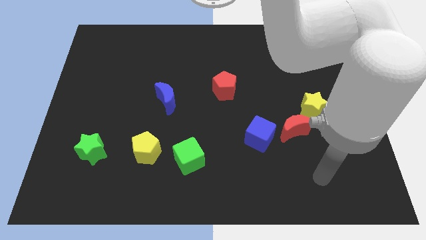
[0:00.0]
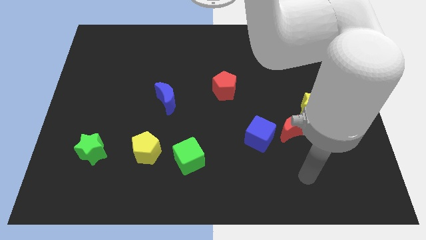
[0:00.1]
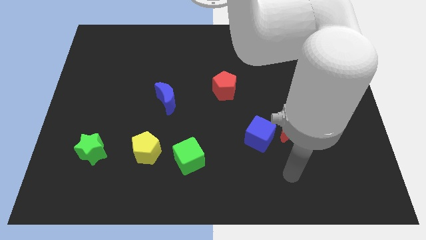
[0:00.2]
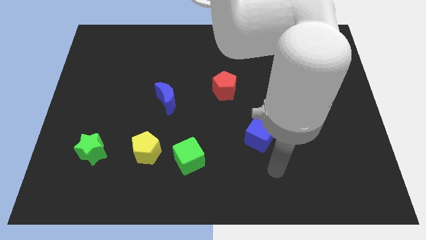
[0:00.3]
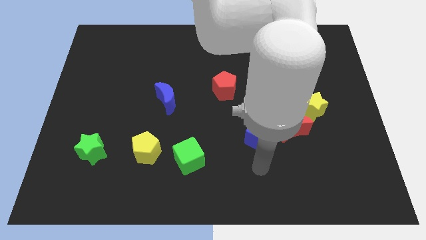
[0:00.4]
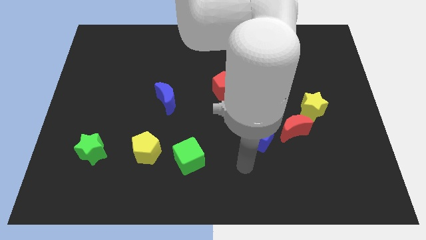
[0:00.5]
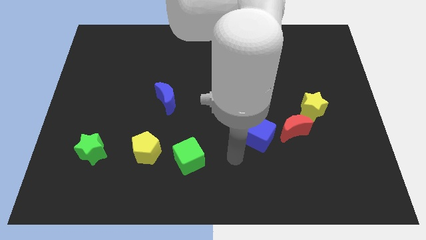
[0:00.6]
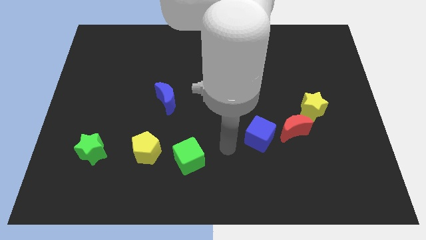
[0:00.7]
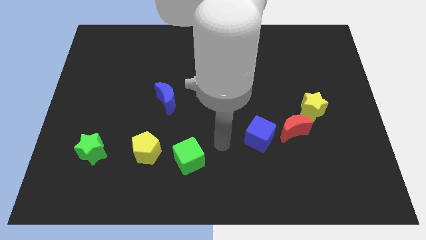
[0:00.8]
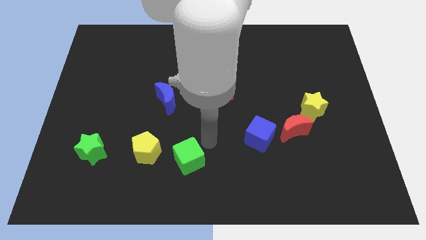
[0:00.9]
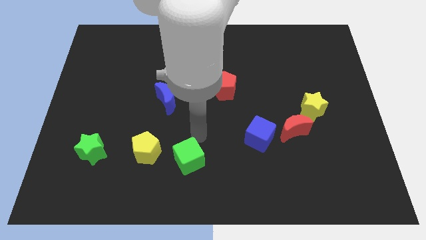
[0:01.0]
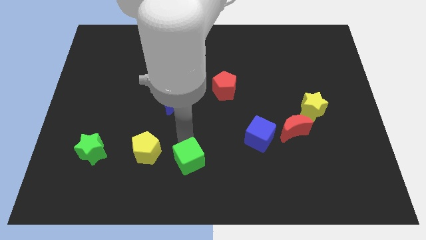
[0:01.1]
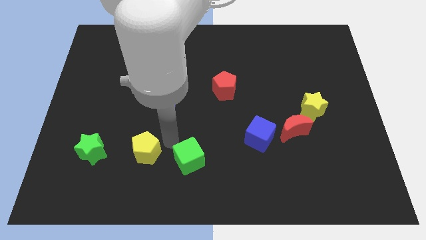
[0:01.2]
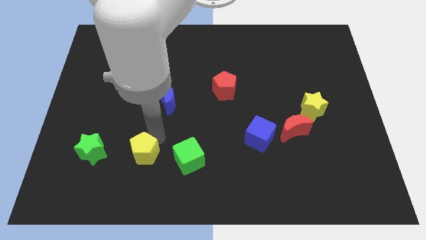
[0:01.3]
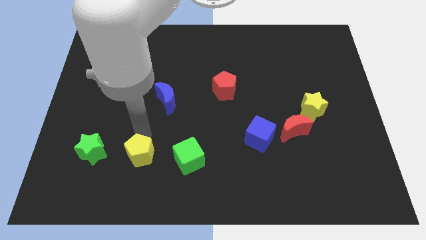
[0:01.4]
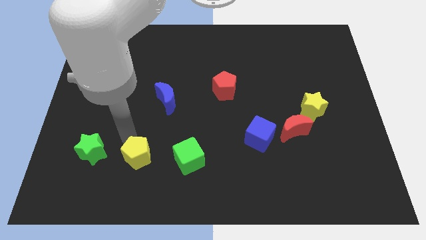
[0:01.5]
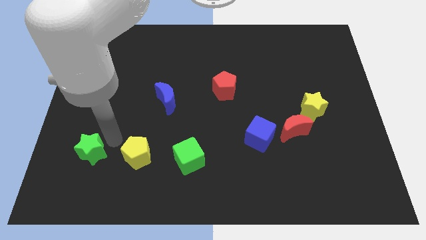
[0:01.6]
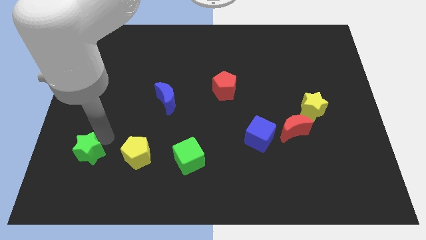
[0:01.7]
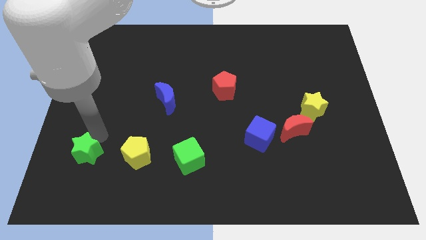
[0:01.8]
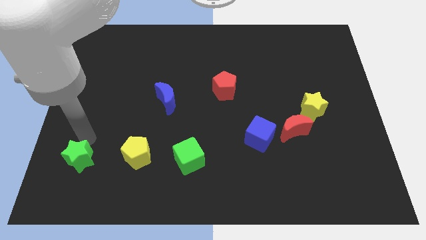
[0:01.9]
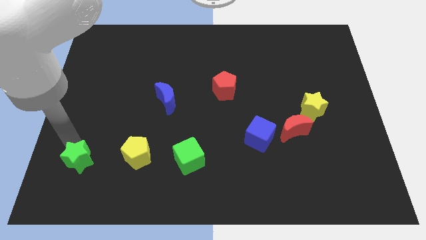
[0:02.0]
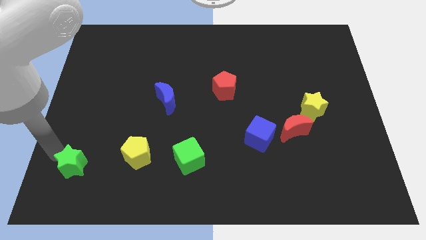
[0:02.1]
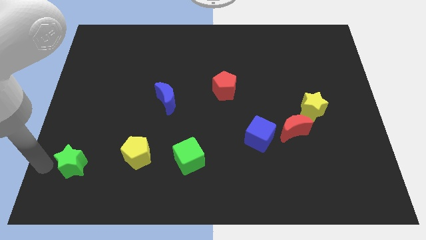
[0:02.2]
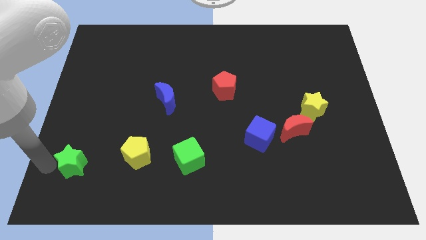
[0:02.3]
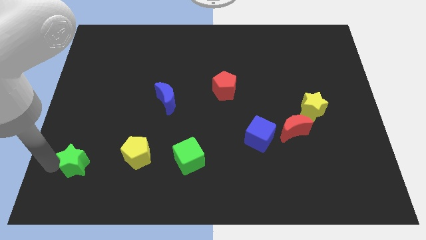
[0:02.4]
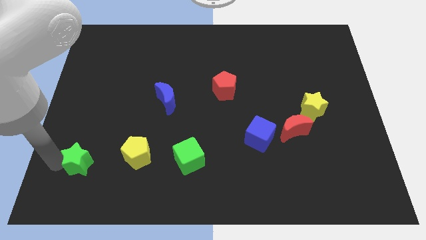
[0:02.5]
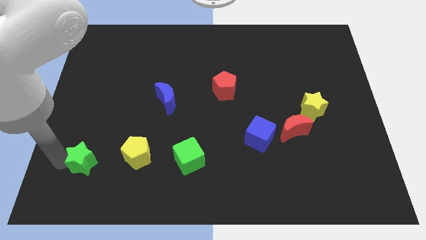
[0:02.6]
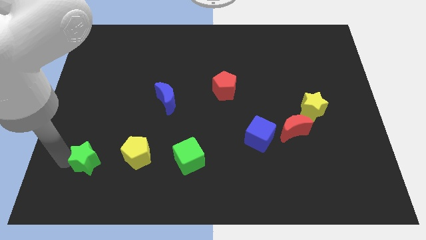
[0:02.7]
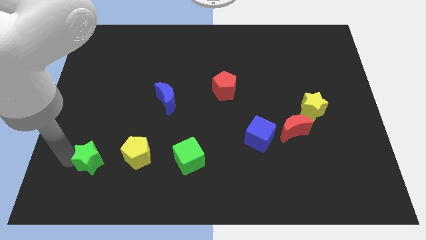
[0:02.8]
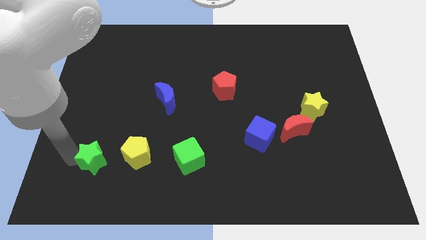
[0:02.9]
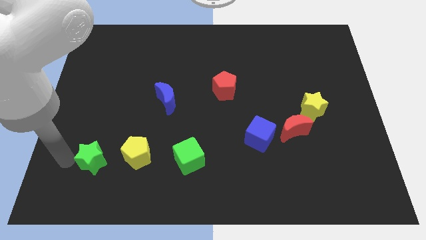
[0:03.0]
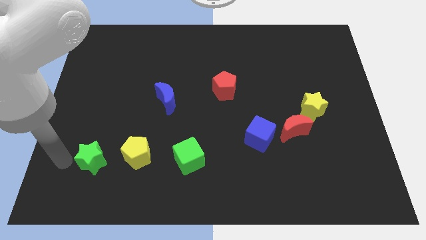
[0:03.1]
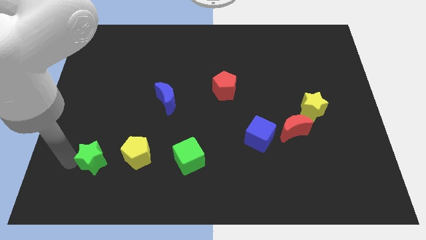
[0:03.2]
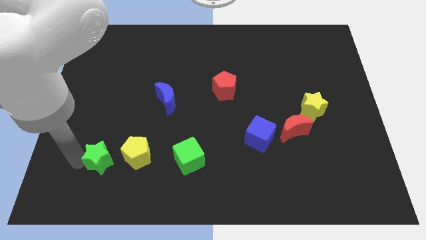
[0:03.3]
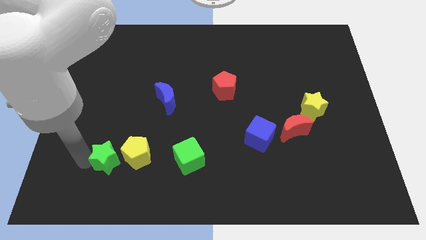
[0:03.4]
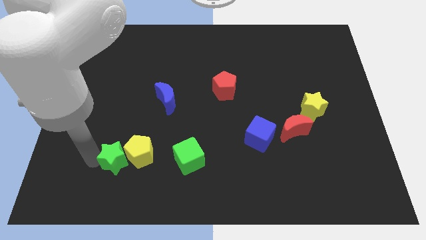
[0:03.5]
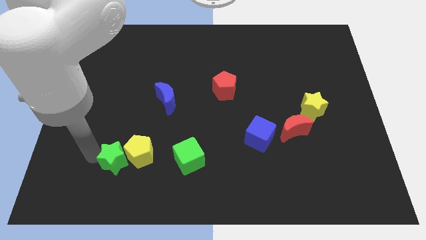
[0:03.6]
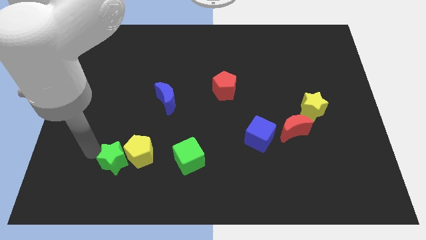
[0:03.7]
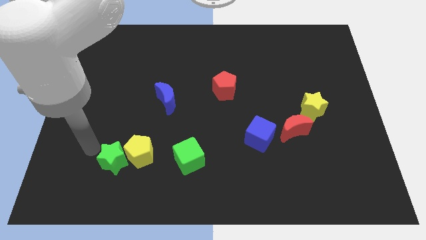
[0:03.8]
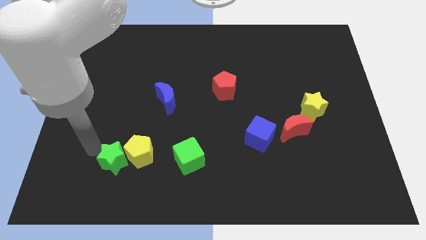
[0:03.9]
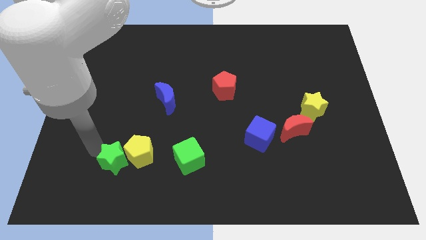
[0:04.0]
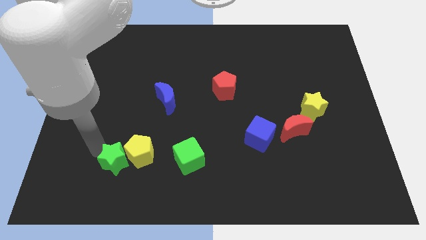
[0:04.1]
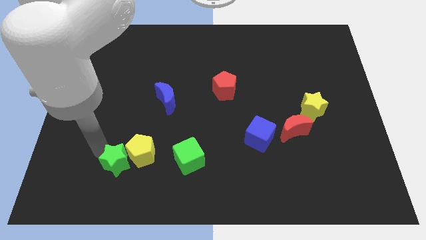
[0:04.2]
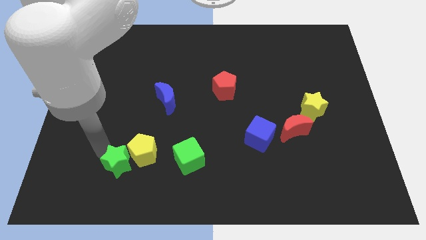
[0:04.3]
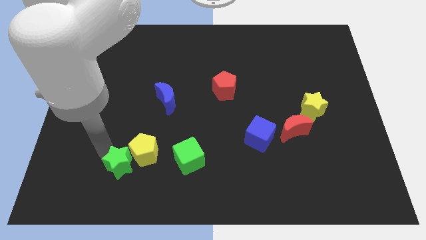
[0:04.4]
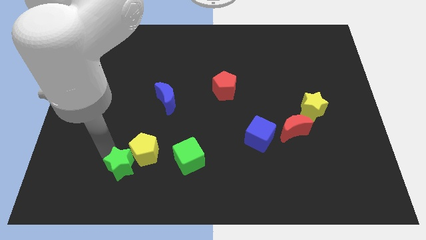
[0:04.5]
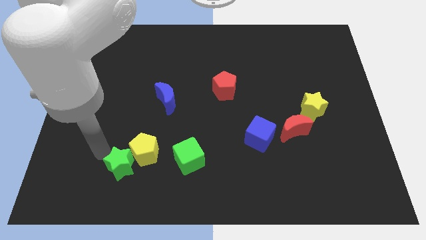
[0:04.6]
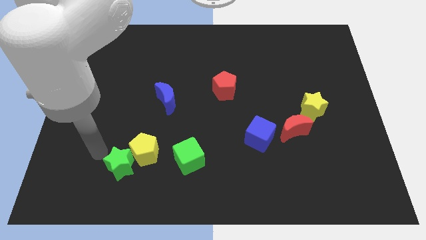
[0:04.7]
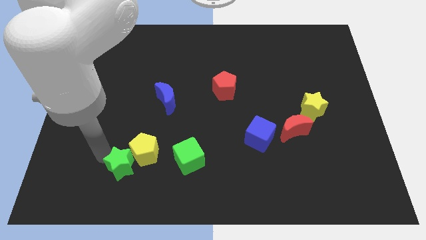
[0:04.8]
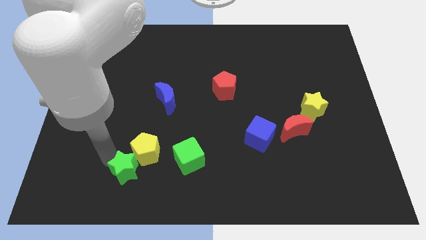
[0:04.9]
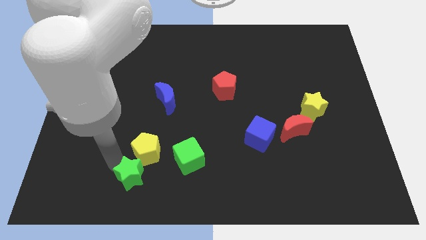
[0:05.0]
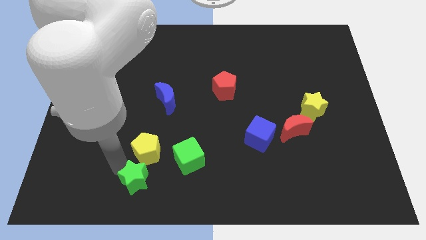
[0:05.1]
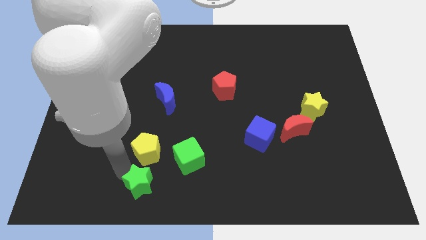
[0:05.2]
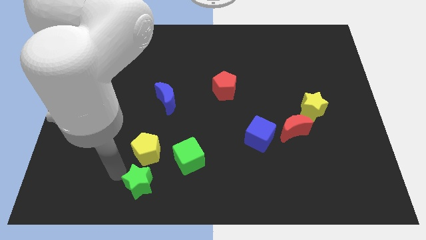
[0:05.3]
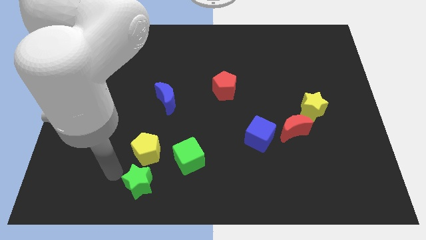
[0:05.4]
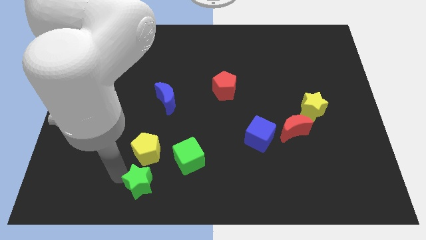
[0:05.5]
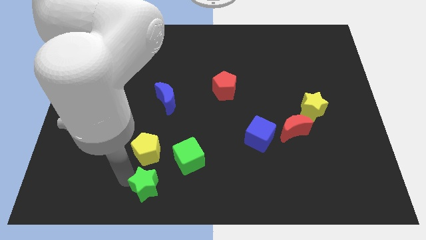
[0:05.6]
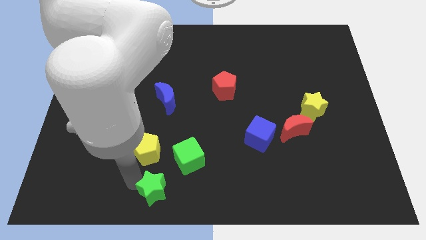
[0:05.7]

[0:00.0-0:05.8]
put the green star to the bottom side

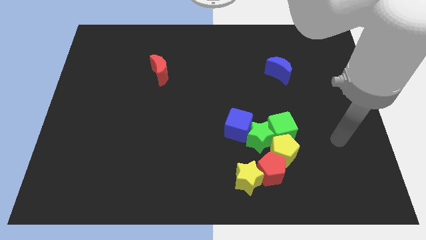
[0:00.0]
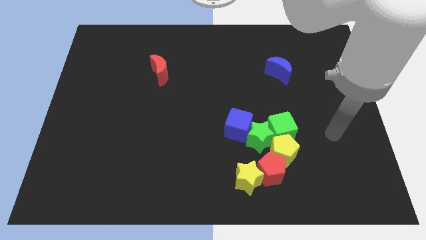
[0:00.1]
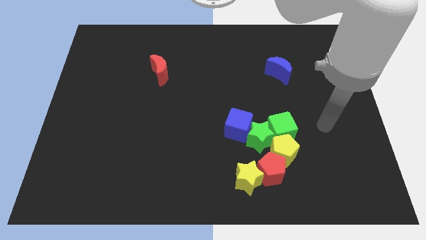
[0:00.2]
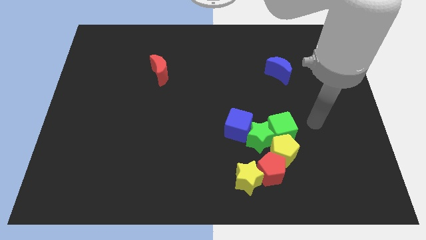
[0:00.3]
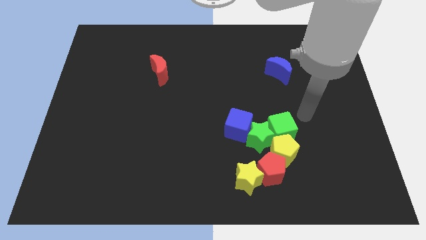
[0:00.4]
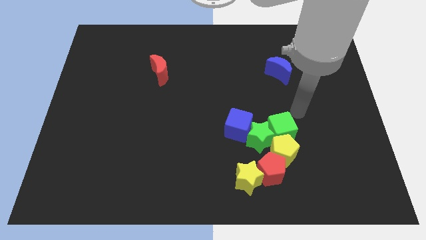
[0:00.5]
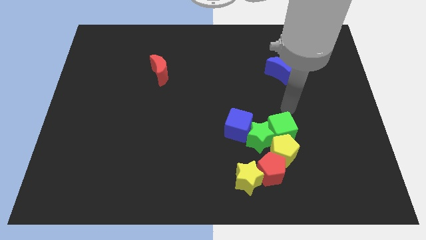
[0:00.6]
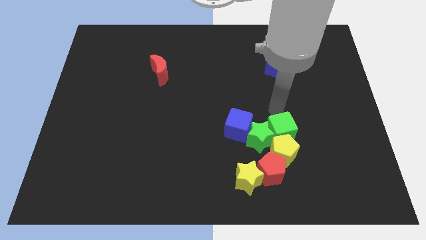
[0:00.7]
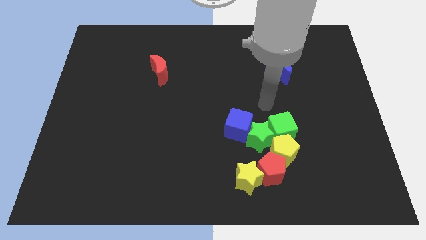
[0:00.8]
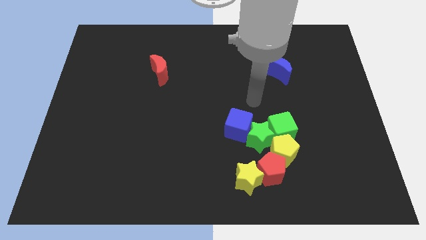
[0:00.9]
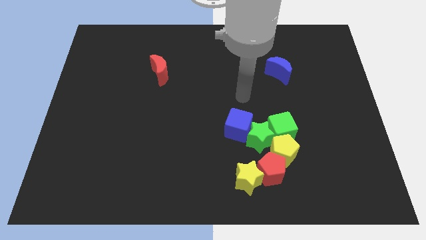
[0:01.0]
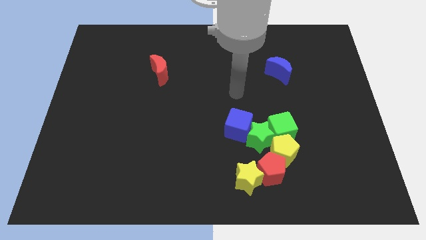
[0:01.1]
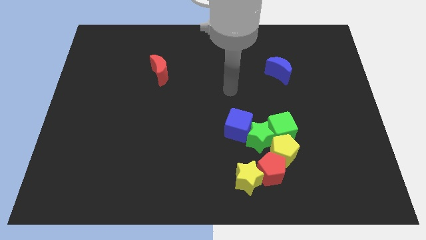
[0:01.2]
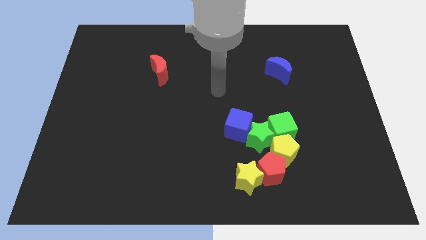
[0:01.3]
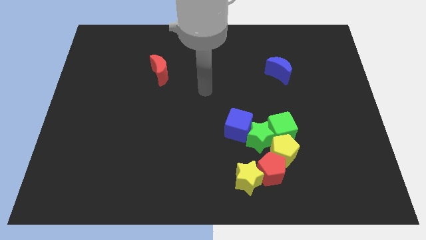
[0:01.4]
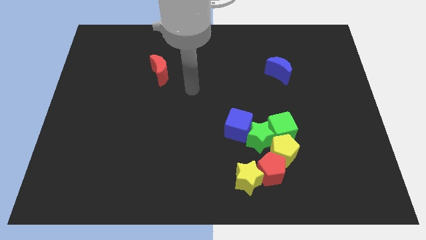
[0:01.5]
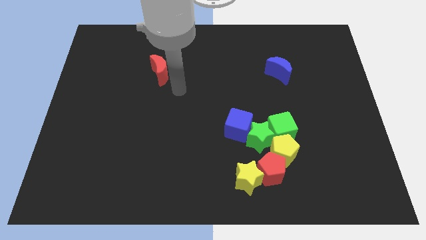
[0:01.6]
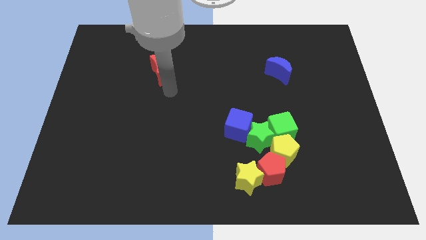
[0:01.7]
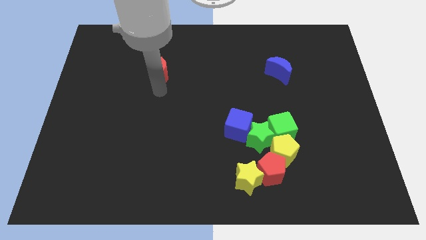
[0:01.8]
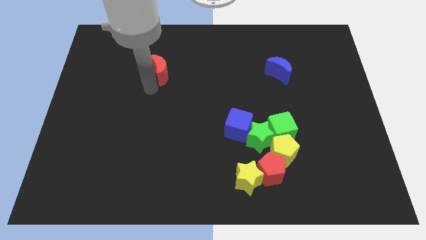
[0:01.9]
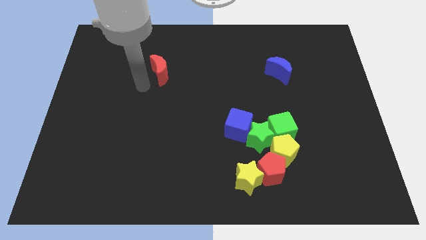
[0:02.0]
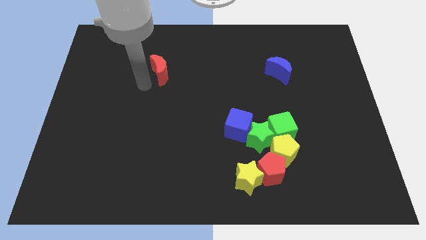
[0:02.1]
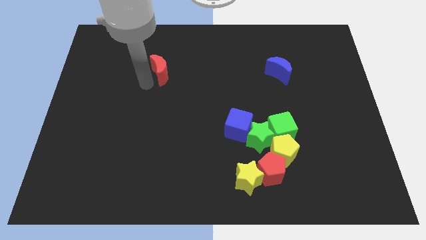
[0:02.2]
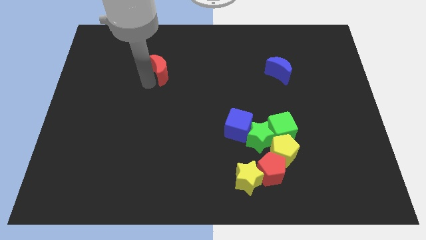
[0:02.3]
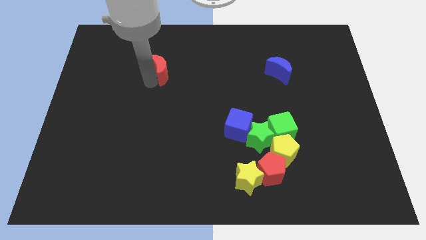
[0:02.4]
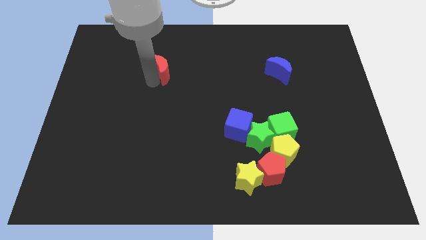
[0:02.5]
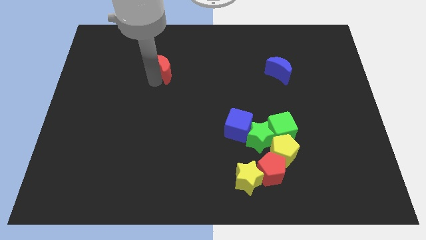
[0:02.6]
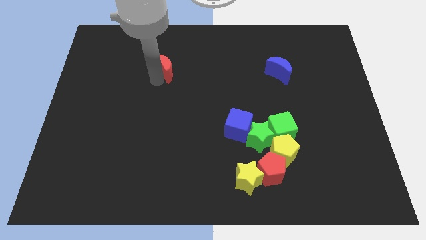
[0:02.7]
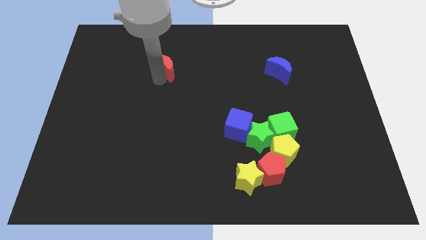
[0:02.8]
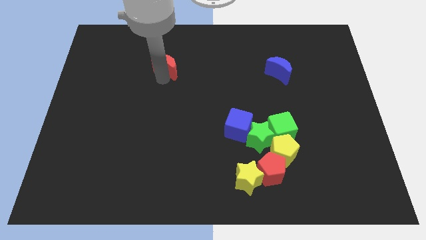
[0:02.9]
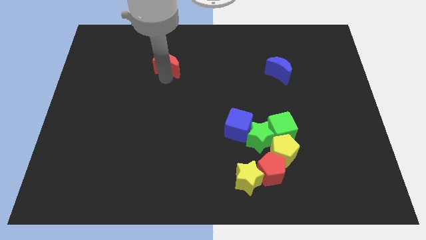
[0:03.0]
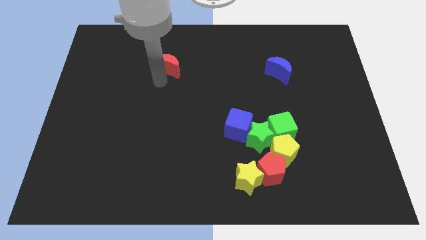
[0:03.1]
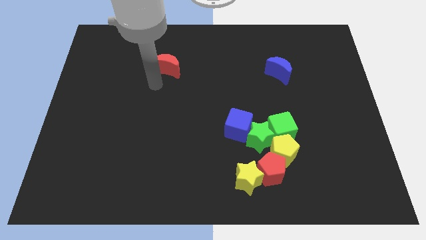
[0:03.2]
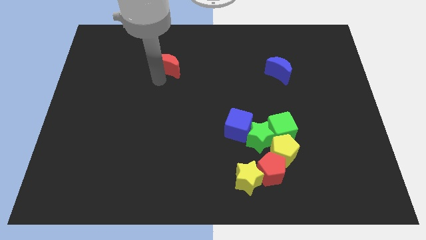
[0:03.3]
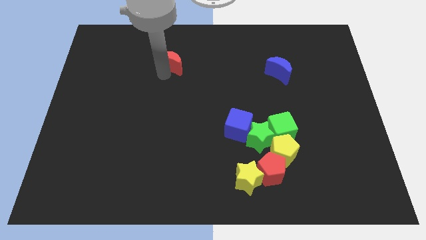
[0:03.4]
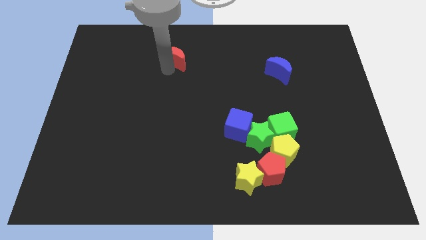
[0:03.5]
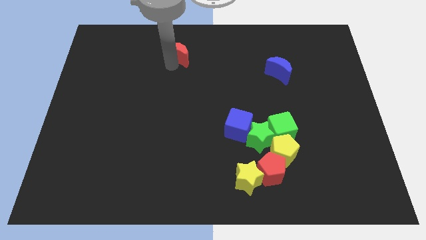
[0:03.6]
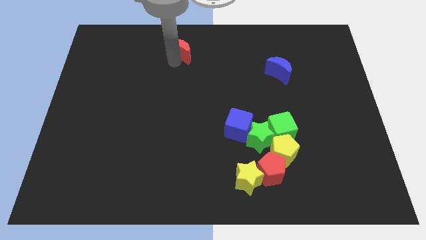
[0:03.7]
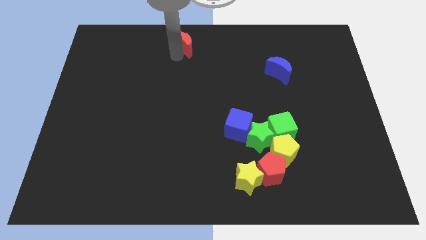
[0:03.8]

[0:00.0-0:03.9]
slide the red moon to the top side
